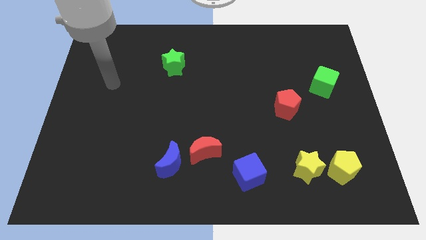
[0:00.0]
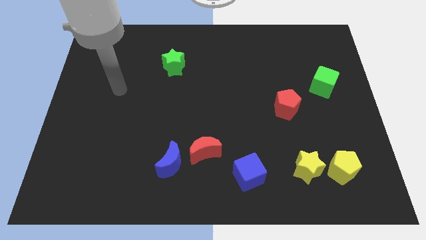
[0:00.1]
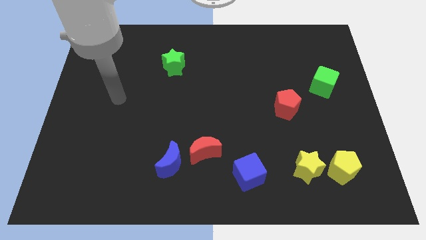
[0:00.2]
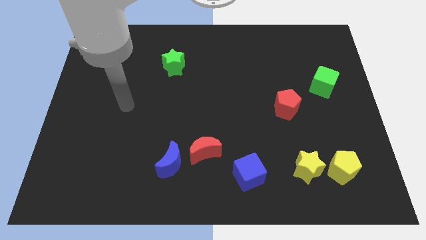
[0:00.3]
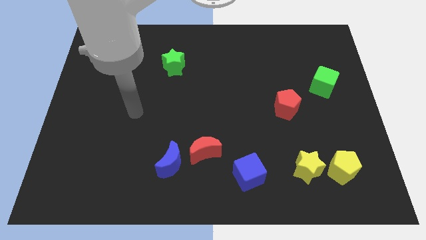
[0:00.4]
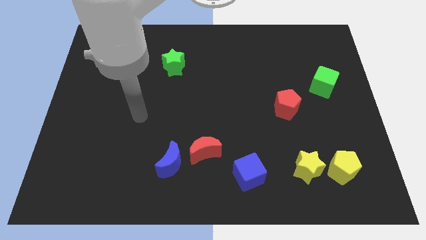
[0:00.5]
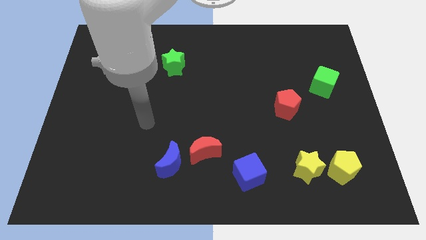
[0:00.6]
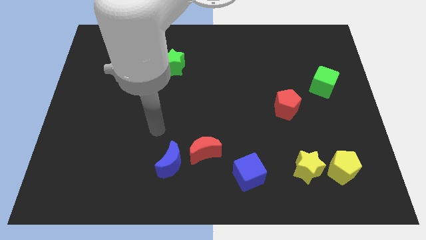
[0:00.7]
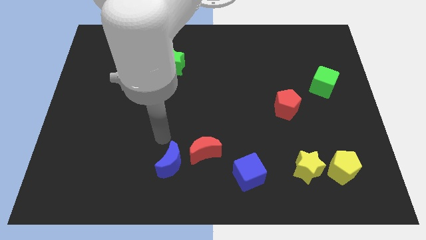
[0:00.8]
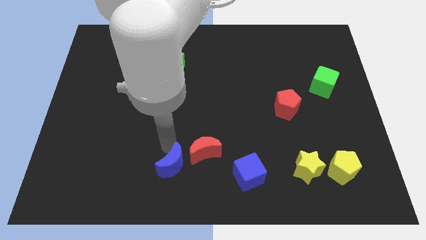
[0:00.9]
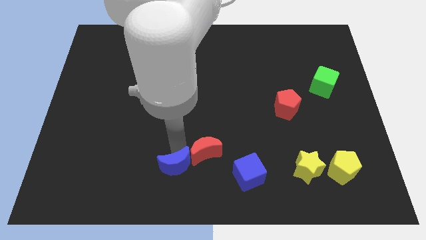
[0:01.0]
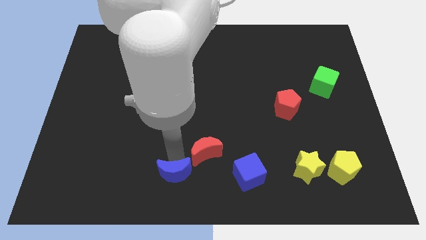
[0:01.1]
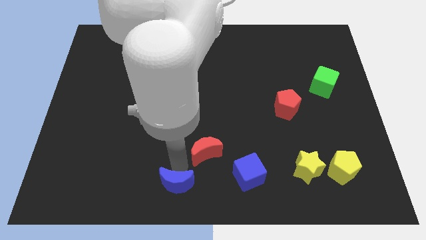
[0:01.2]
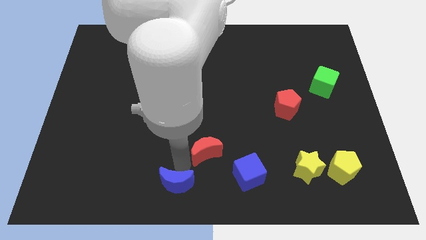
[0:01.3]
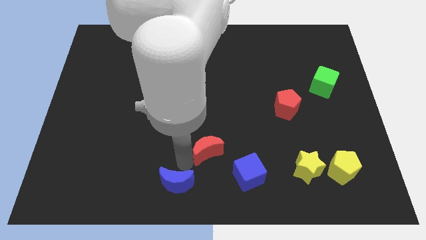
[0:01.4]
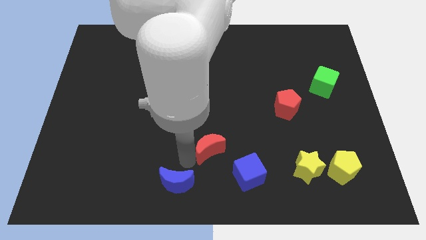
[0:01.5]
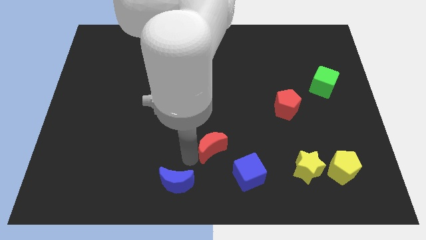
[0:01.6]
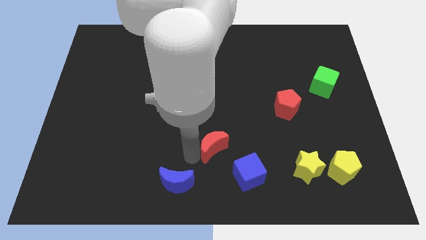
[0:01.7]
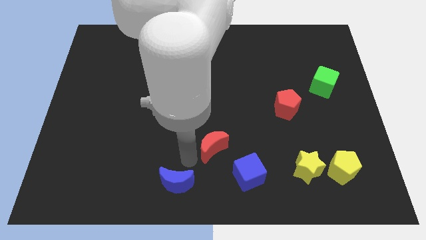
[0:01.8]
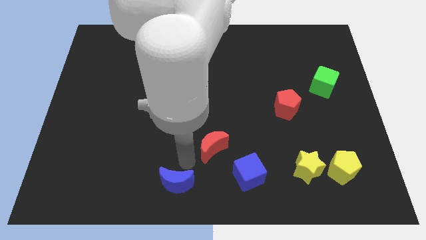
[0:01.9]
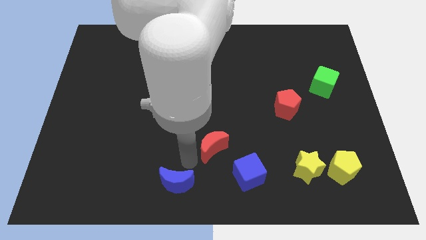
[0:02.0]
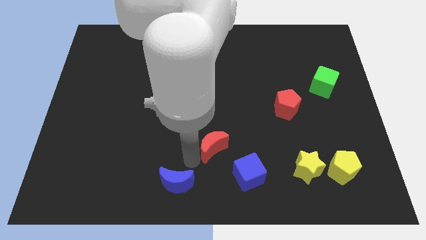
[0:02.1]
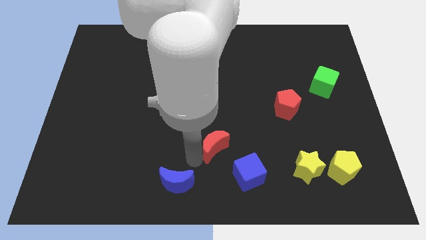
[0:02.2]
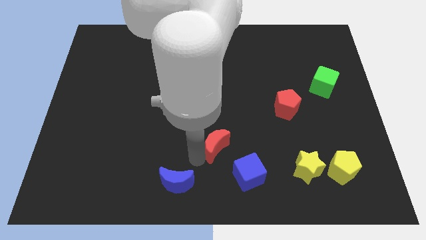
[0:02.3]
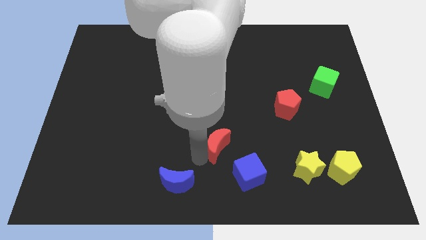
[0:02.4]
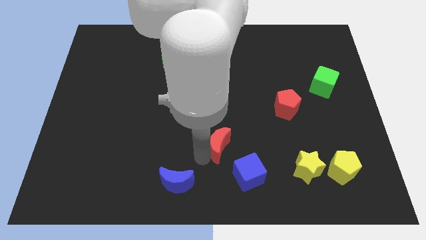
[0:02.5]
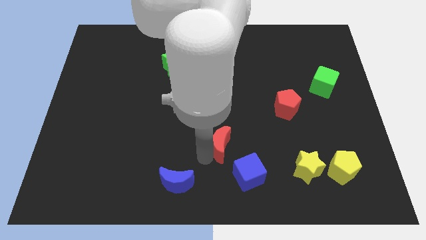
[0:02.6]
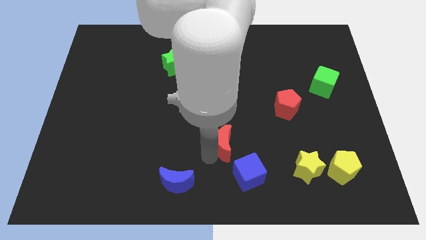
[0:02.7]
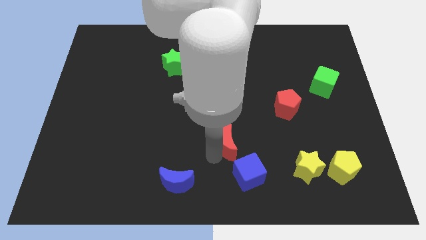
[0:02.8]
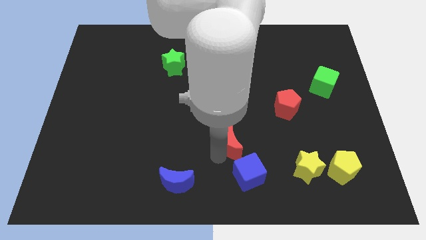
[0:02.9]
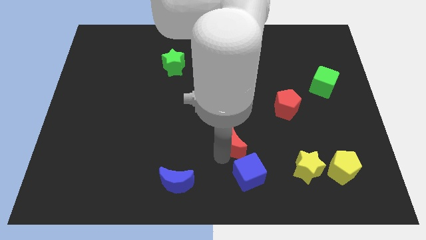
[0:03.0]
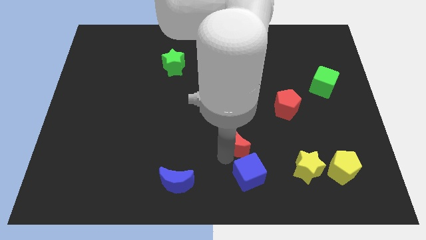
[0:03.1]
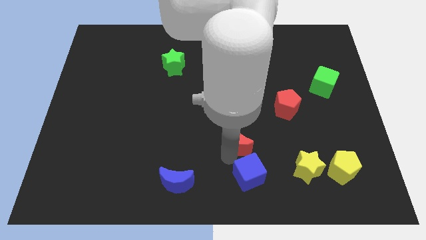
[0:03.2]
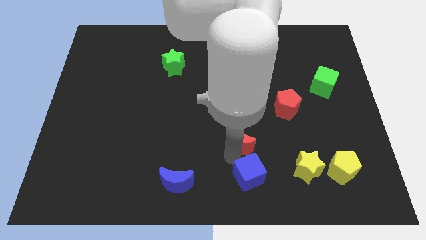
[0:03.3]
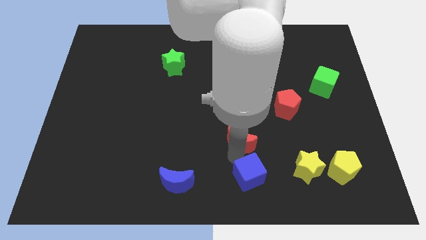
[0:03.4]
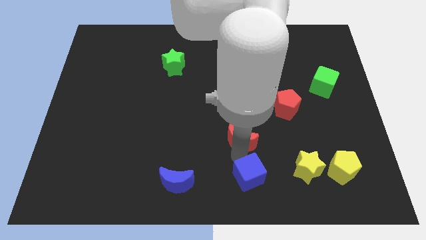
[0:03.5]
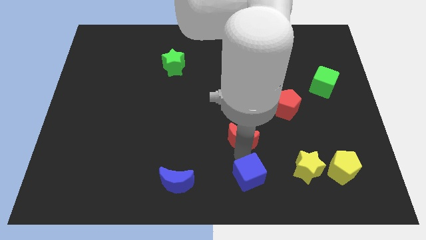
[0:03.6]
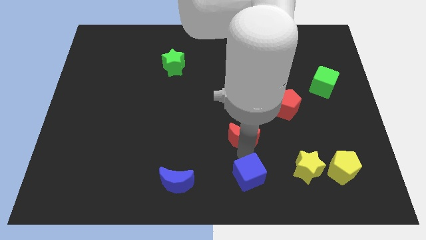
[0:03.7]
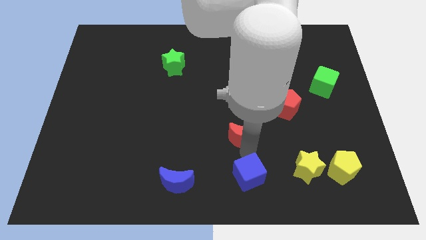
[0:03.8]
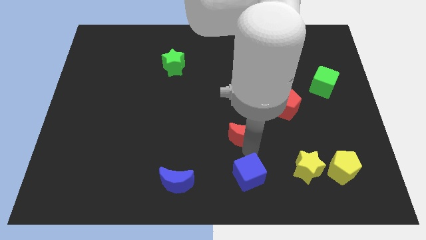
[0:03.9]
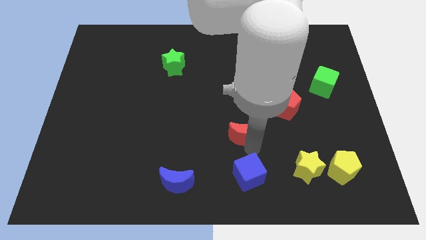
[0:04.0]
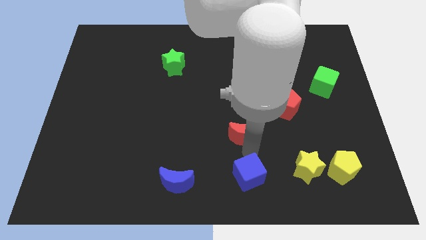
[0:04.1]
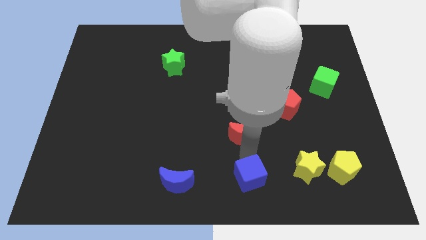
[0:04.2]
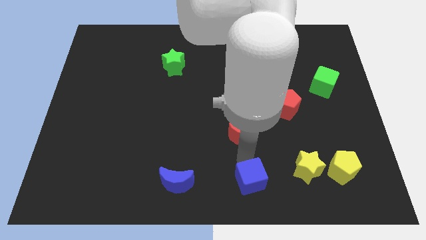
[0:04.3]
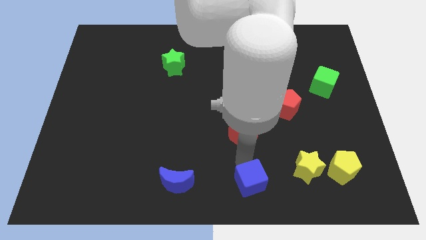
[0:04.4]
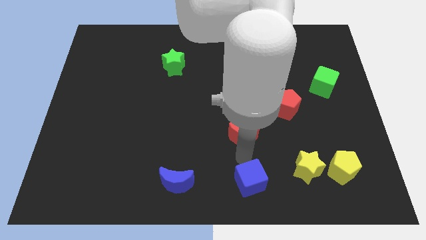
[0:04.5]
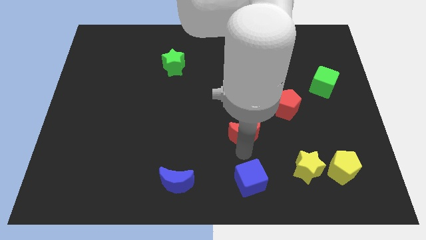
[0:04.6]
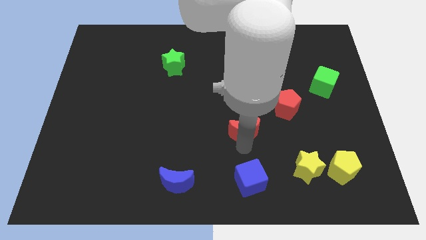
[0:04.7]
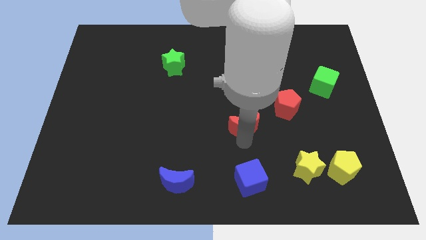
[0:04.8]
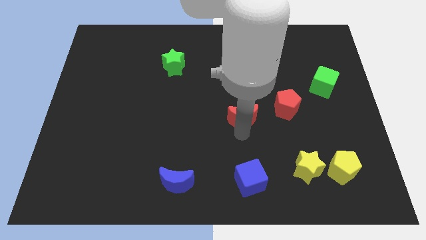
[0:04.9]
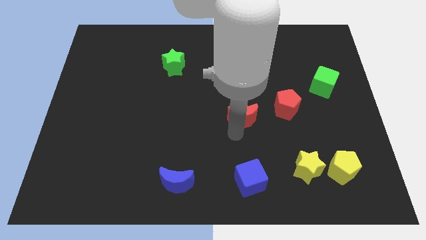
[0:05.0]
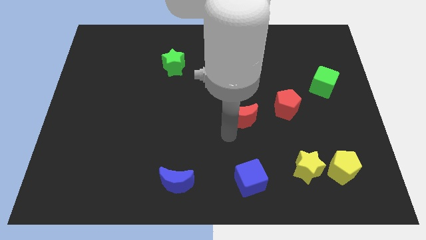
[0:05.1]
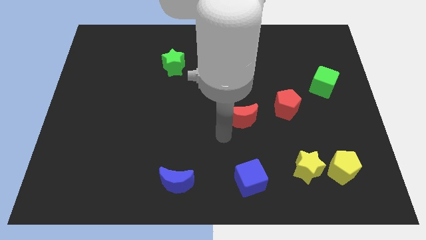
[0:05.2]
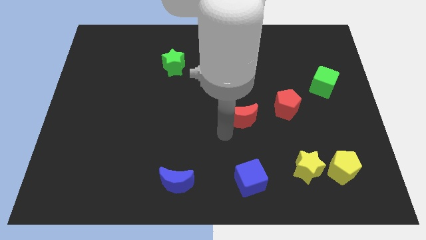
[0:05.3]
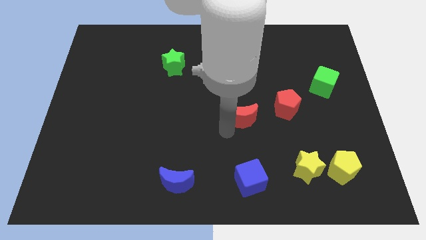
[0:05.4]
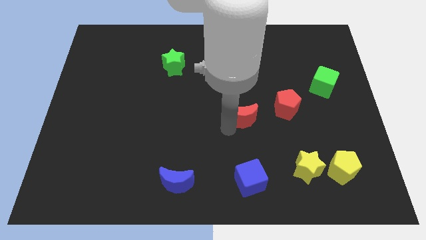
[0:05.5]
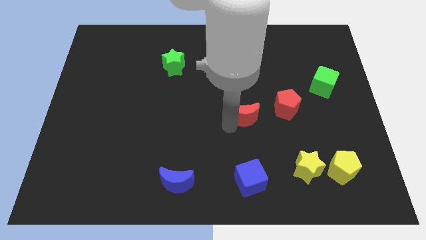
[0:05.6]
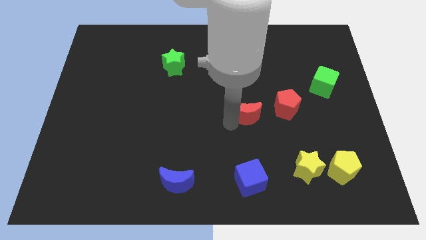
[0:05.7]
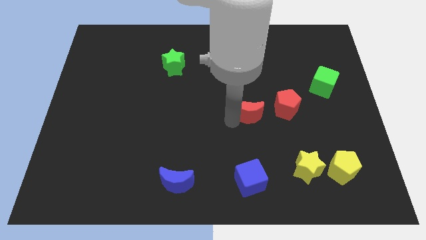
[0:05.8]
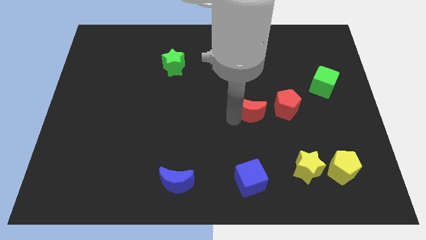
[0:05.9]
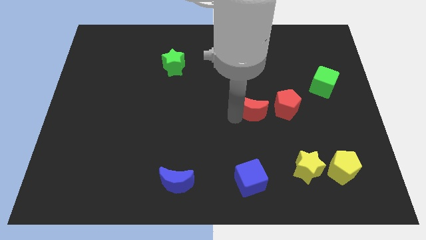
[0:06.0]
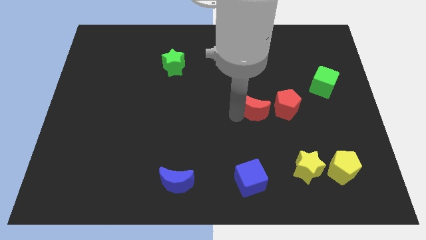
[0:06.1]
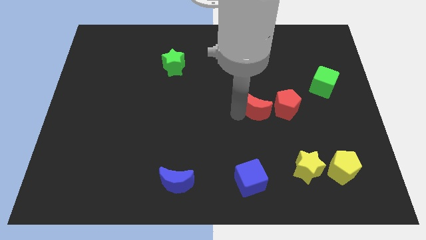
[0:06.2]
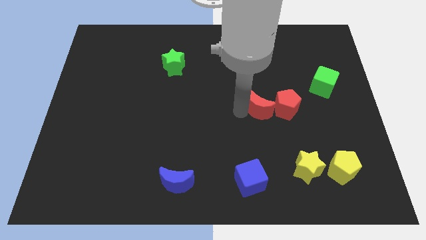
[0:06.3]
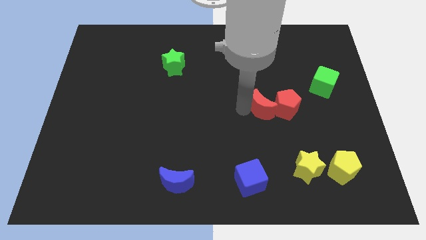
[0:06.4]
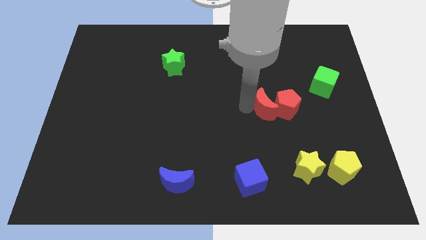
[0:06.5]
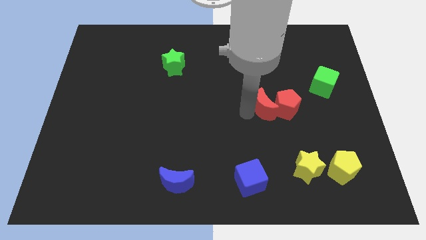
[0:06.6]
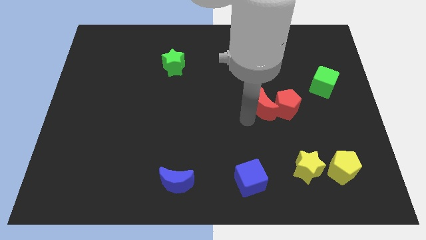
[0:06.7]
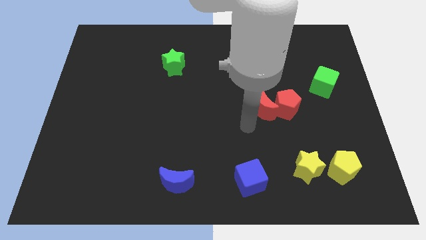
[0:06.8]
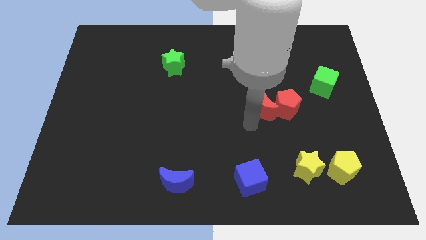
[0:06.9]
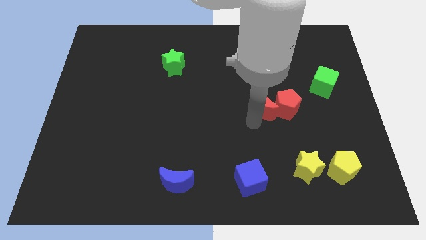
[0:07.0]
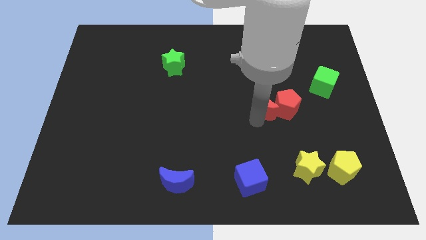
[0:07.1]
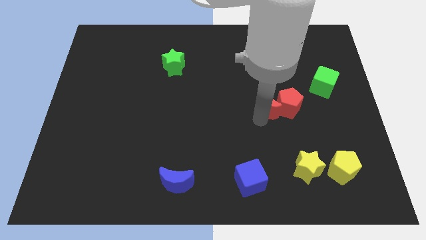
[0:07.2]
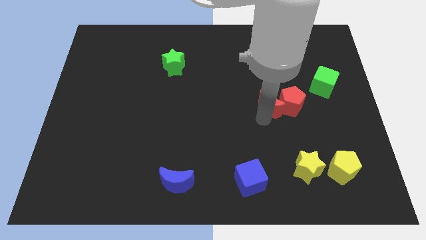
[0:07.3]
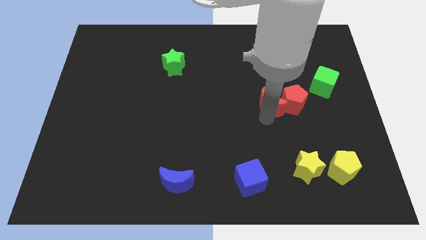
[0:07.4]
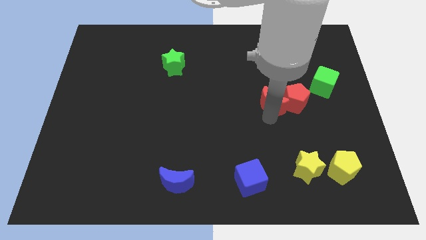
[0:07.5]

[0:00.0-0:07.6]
slide the red moon upwards and right

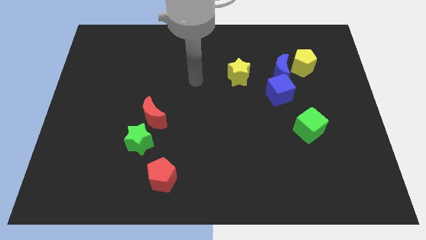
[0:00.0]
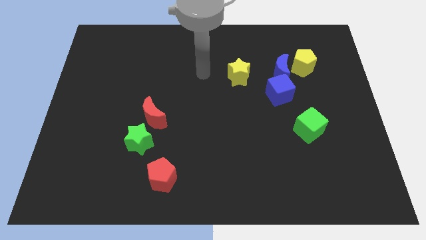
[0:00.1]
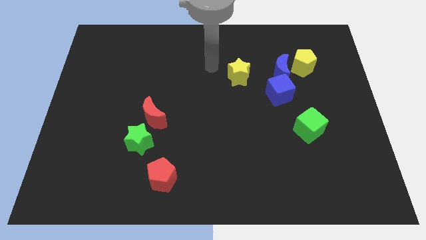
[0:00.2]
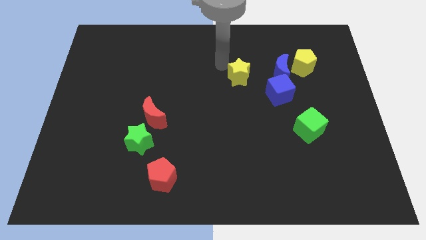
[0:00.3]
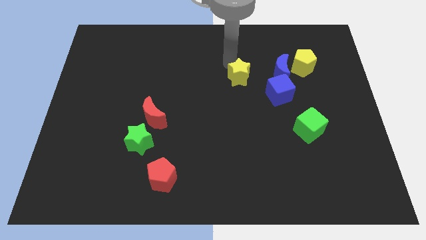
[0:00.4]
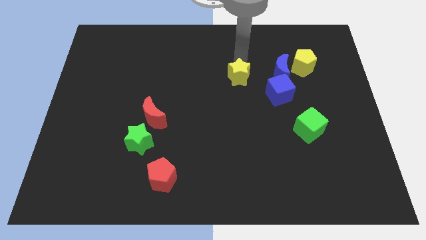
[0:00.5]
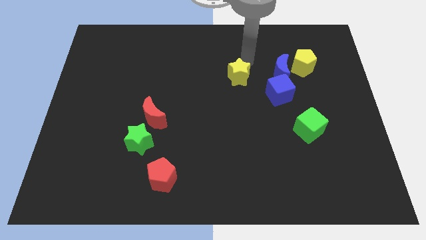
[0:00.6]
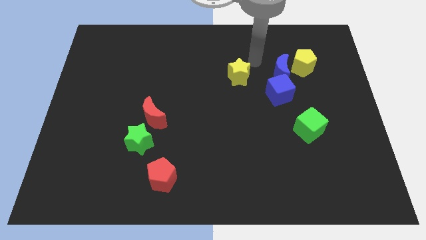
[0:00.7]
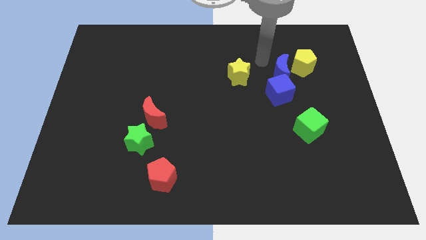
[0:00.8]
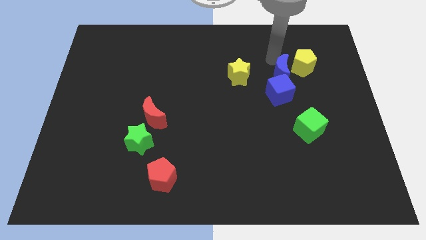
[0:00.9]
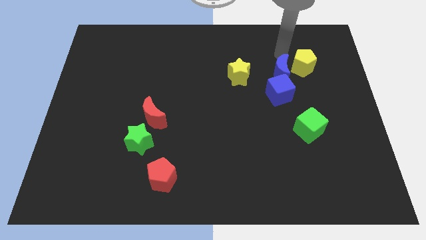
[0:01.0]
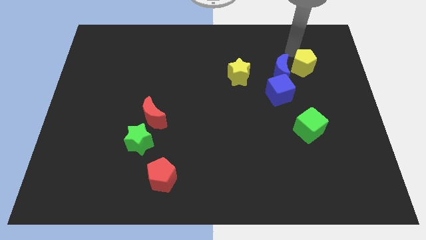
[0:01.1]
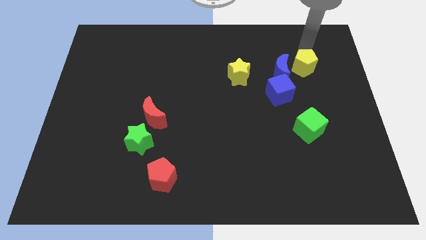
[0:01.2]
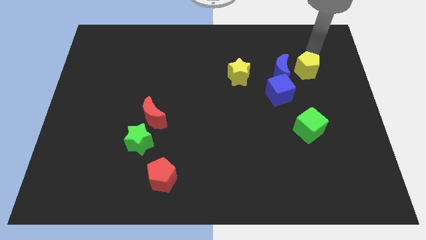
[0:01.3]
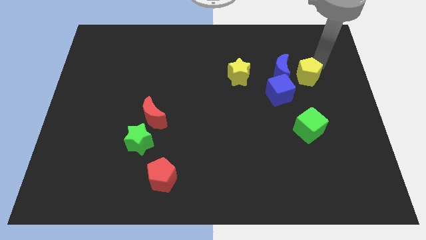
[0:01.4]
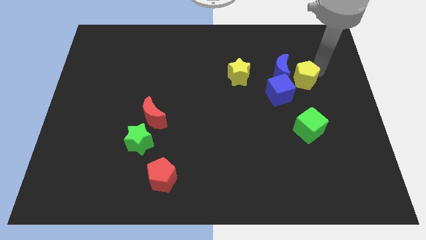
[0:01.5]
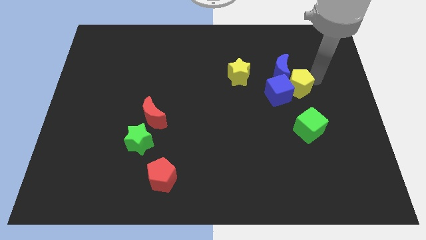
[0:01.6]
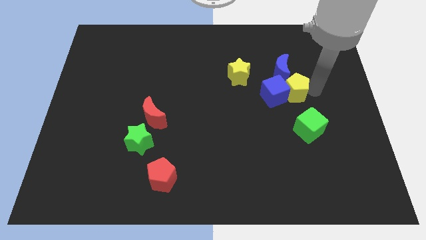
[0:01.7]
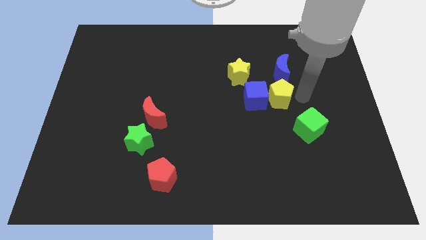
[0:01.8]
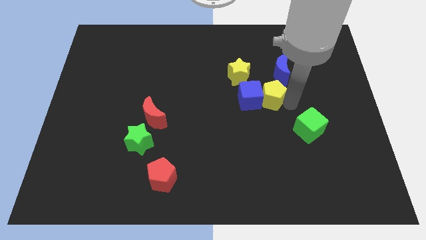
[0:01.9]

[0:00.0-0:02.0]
push the blue cube to the left a little bit
